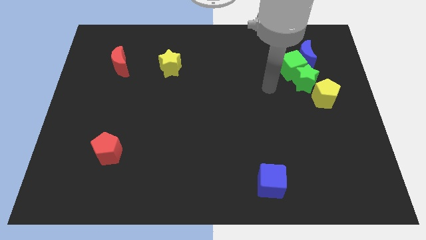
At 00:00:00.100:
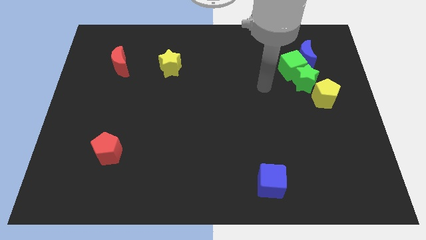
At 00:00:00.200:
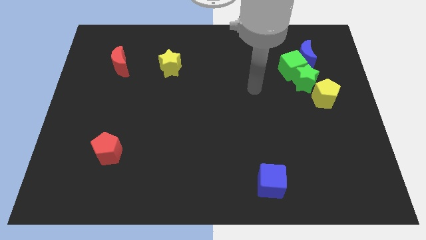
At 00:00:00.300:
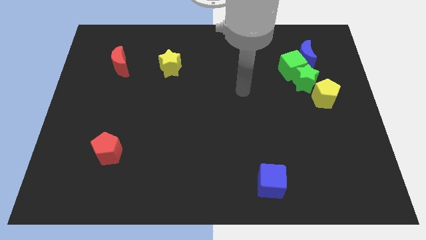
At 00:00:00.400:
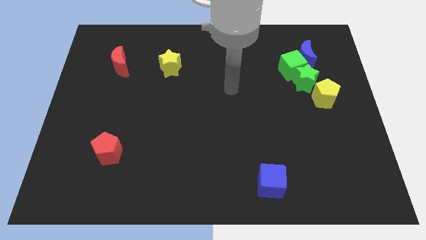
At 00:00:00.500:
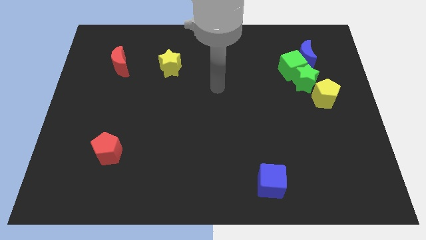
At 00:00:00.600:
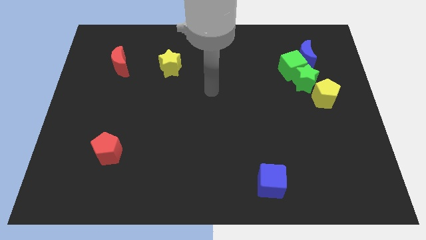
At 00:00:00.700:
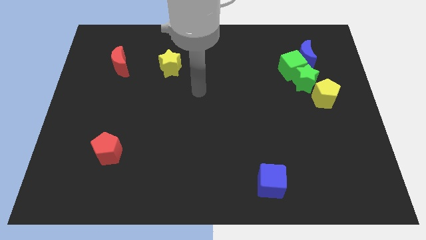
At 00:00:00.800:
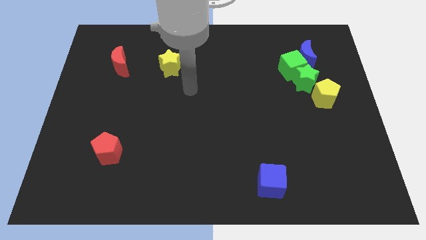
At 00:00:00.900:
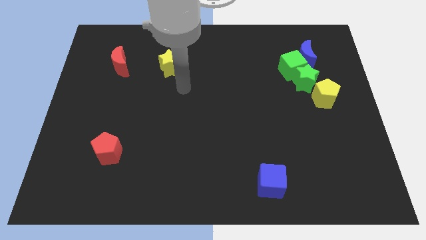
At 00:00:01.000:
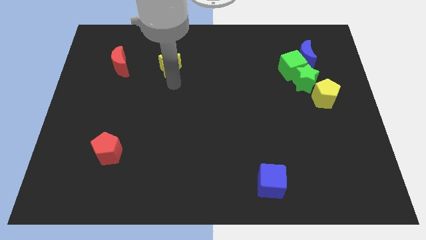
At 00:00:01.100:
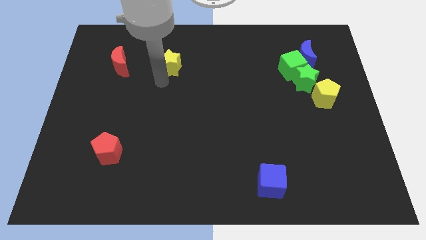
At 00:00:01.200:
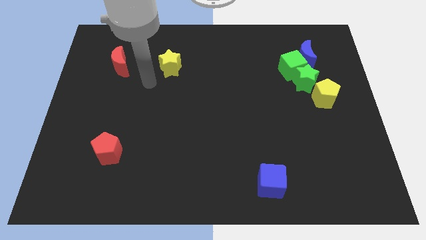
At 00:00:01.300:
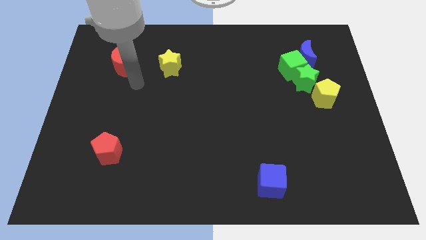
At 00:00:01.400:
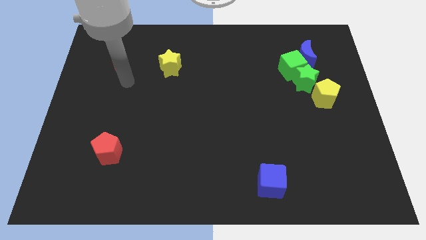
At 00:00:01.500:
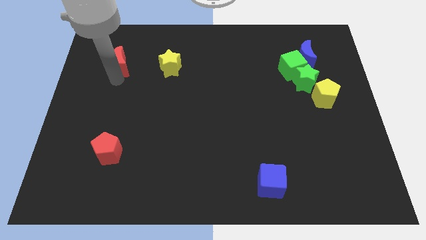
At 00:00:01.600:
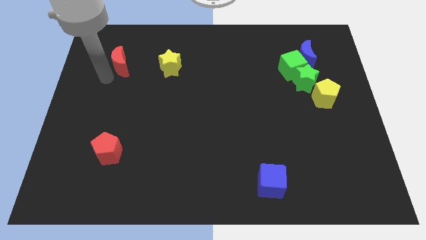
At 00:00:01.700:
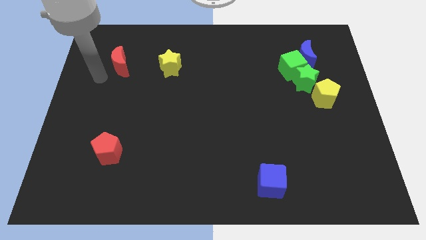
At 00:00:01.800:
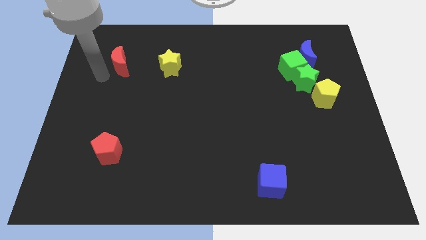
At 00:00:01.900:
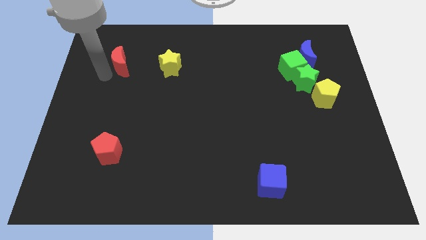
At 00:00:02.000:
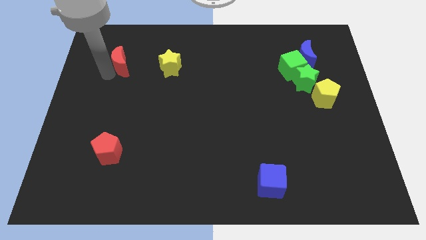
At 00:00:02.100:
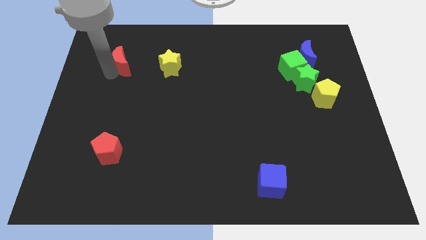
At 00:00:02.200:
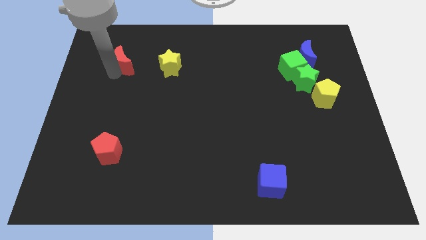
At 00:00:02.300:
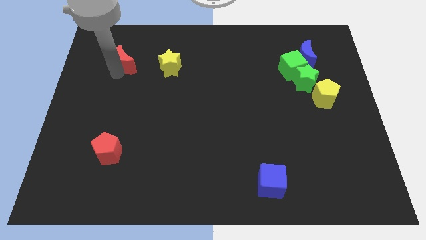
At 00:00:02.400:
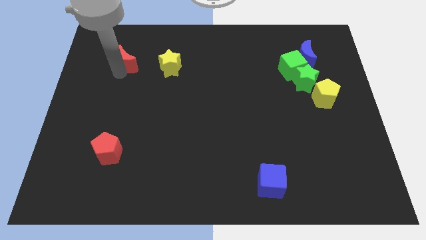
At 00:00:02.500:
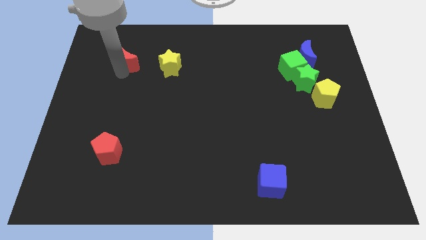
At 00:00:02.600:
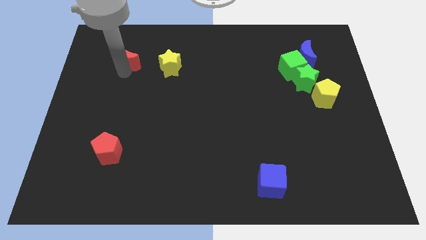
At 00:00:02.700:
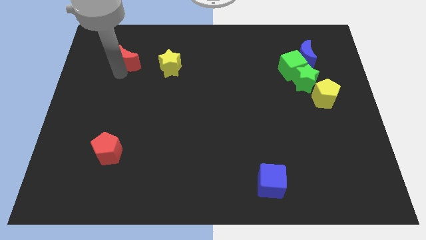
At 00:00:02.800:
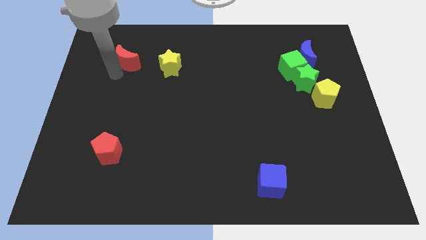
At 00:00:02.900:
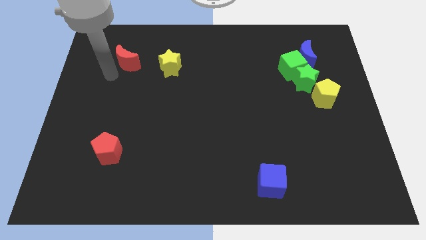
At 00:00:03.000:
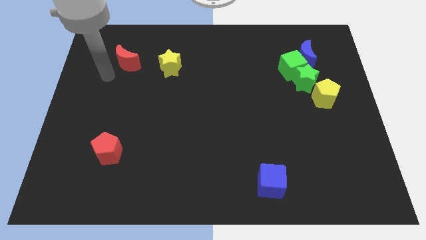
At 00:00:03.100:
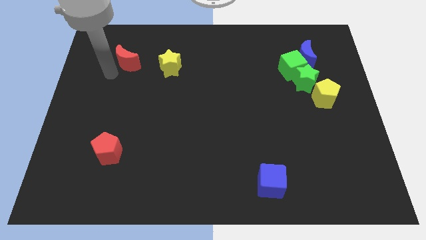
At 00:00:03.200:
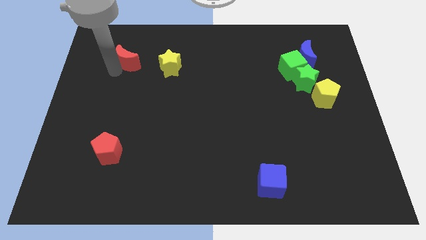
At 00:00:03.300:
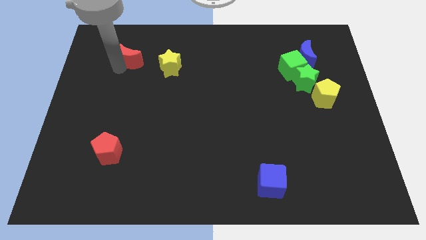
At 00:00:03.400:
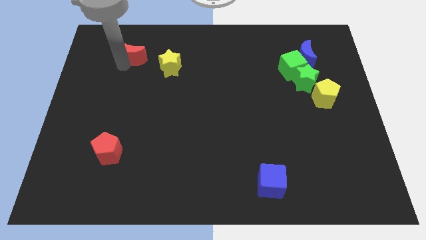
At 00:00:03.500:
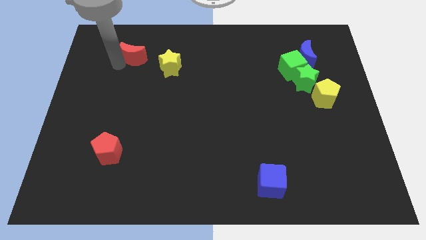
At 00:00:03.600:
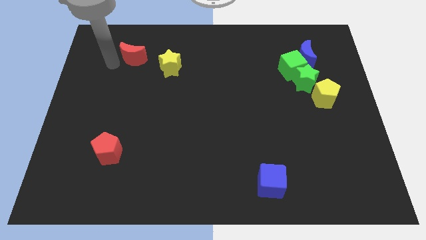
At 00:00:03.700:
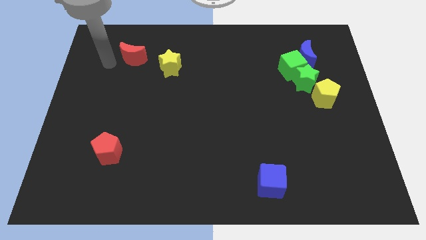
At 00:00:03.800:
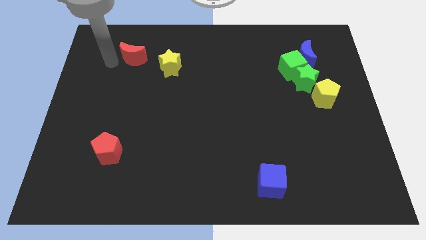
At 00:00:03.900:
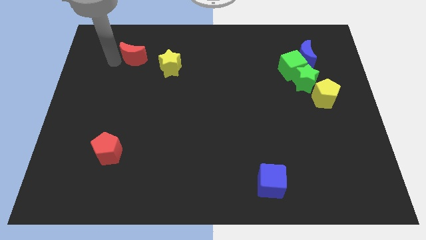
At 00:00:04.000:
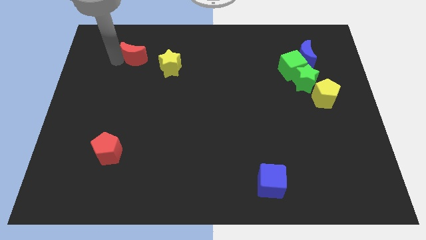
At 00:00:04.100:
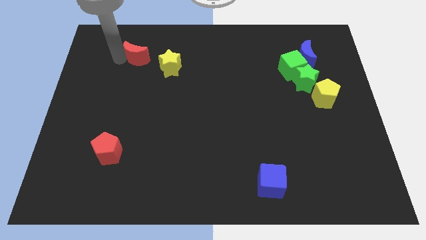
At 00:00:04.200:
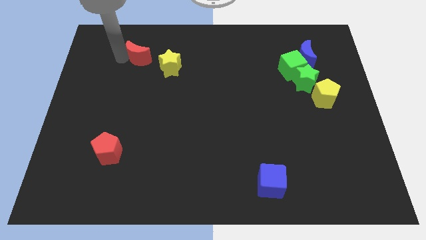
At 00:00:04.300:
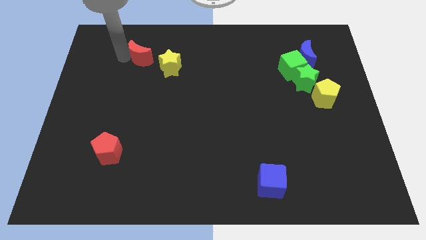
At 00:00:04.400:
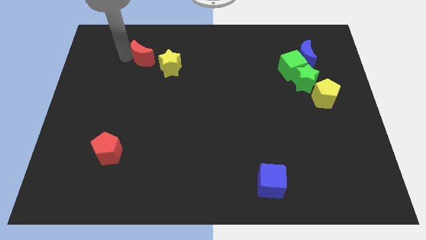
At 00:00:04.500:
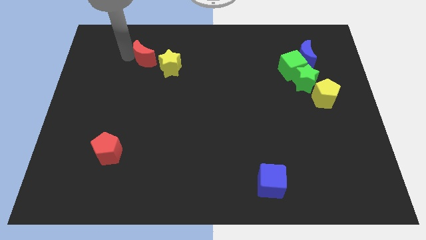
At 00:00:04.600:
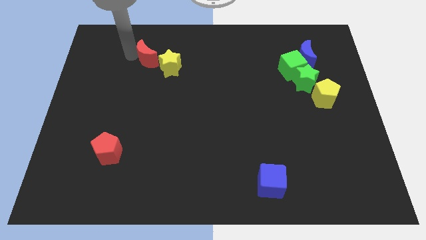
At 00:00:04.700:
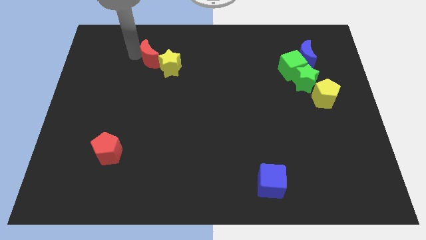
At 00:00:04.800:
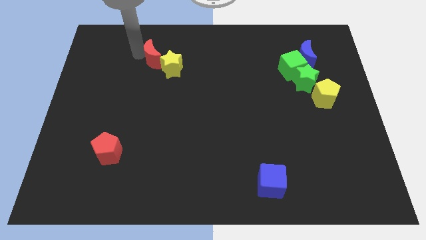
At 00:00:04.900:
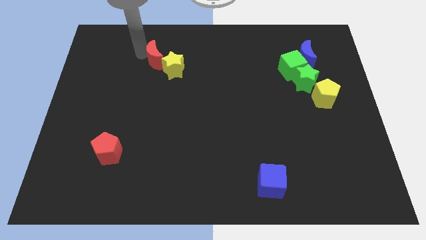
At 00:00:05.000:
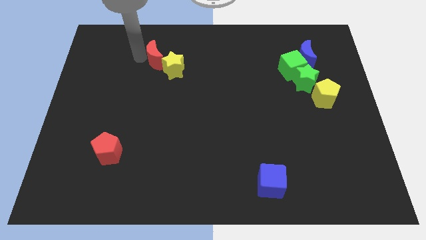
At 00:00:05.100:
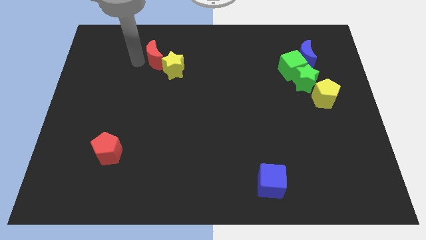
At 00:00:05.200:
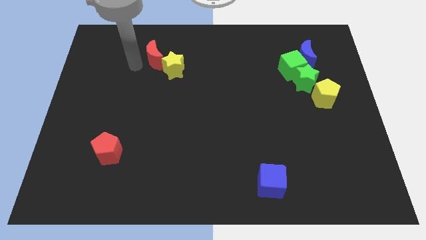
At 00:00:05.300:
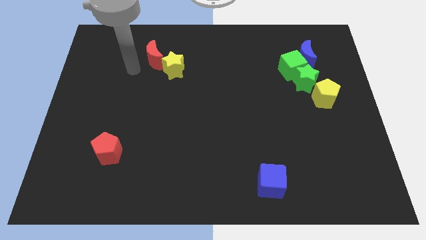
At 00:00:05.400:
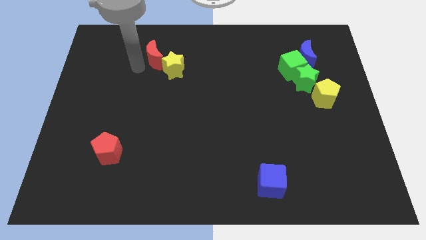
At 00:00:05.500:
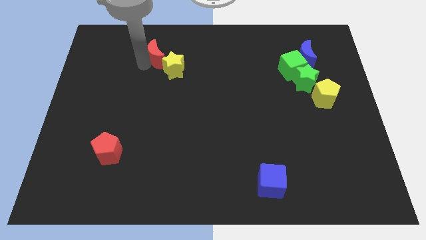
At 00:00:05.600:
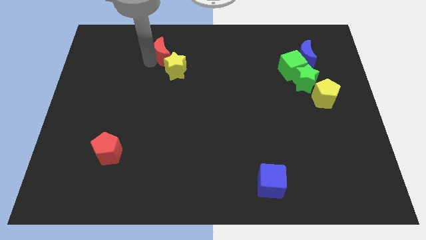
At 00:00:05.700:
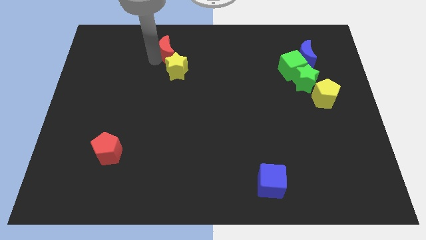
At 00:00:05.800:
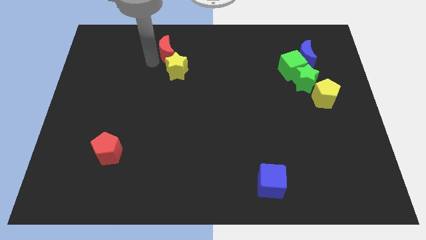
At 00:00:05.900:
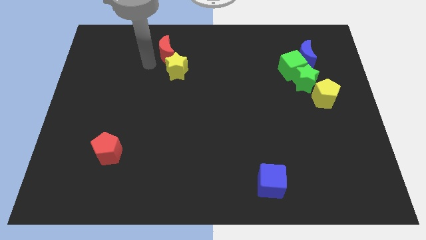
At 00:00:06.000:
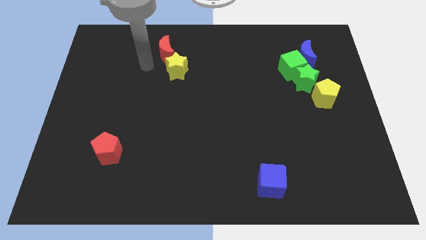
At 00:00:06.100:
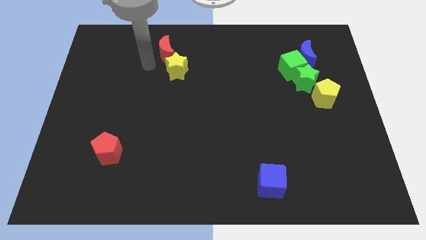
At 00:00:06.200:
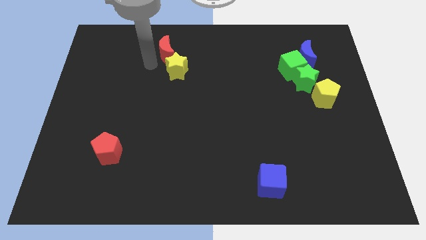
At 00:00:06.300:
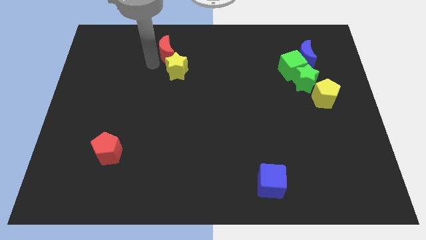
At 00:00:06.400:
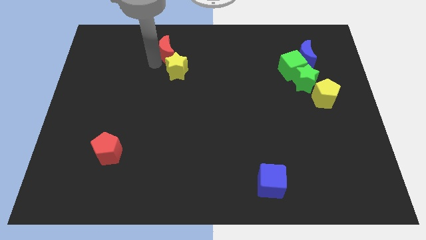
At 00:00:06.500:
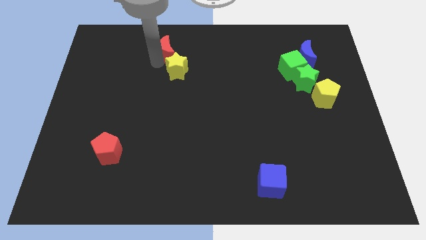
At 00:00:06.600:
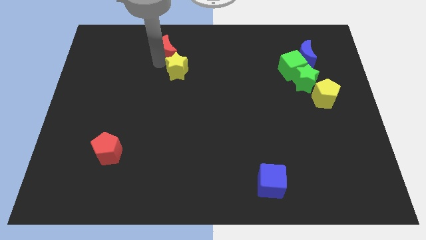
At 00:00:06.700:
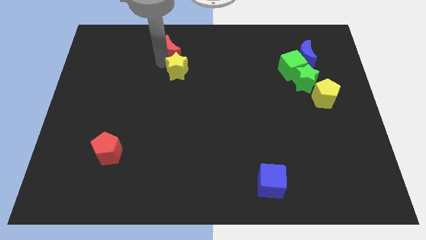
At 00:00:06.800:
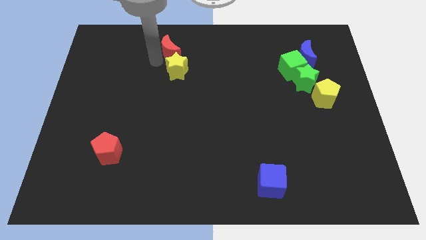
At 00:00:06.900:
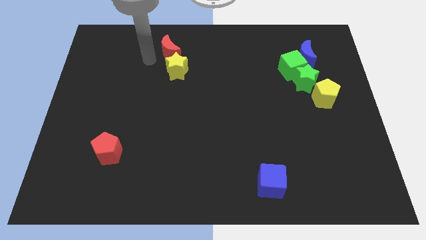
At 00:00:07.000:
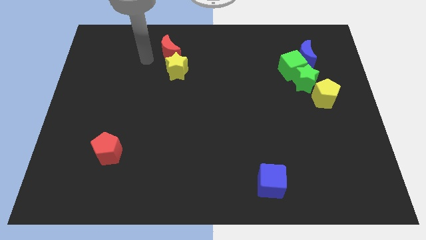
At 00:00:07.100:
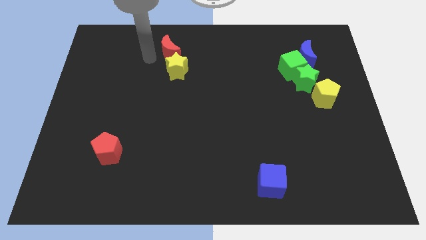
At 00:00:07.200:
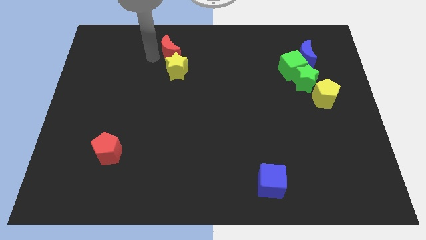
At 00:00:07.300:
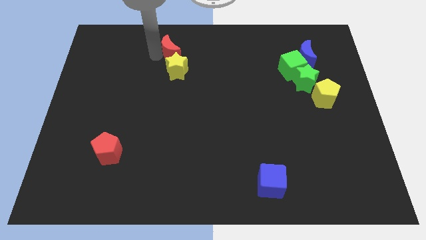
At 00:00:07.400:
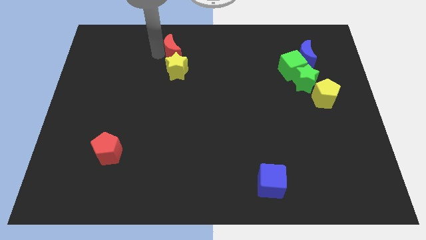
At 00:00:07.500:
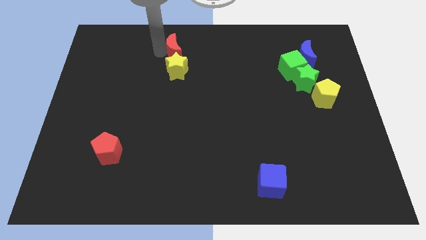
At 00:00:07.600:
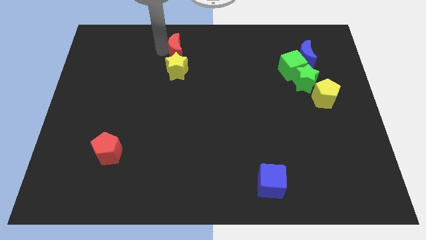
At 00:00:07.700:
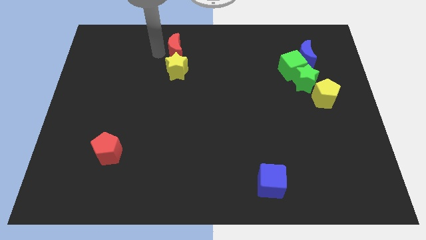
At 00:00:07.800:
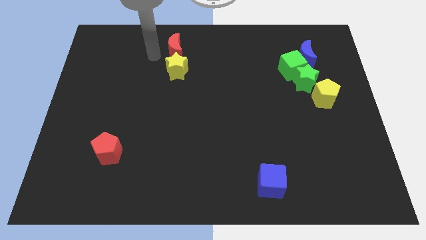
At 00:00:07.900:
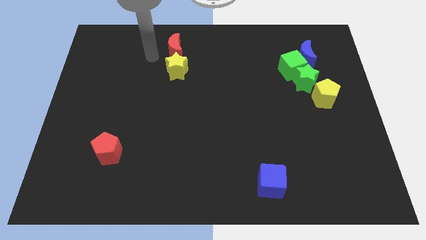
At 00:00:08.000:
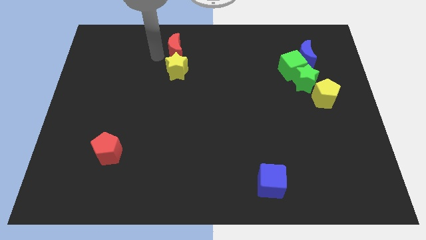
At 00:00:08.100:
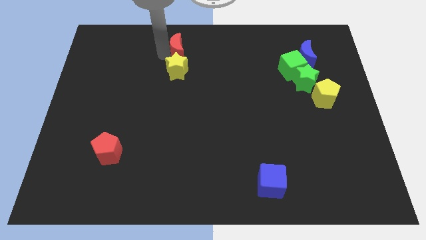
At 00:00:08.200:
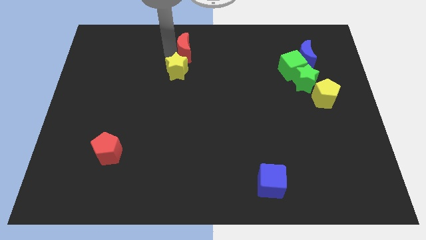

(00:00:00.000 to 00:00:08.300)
move the red moon to the top side
